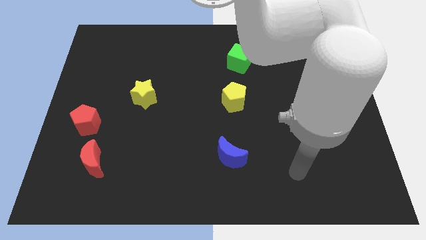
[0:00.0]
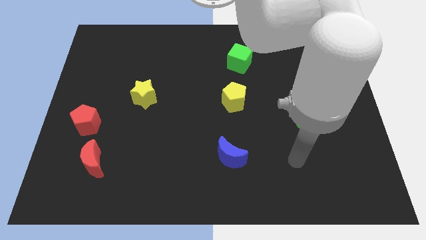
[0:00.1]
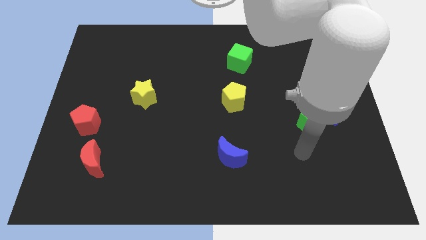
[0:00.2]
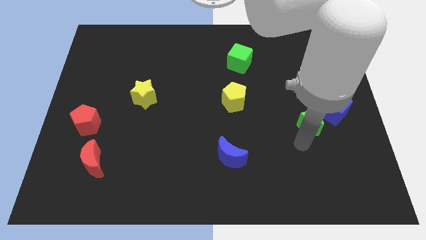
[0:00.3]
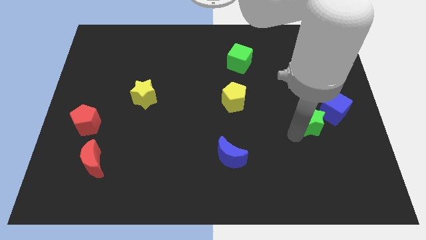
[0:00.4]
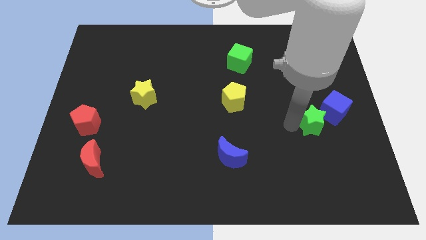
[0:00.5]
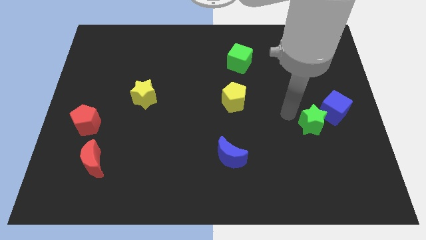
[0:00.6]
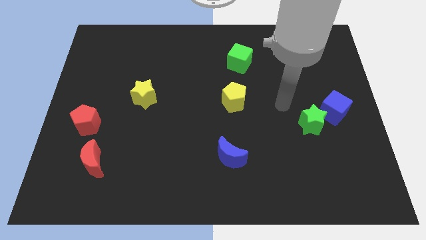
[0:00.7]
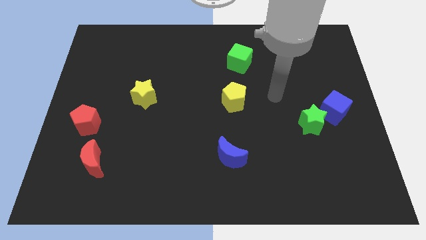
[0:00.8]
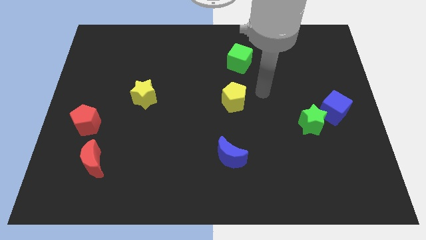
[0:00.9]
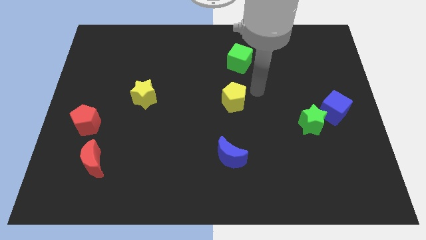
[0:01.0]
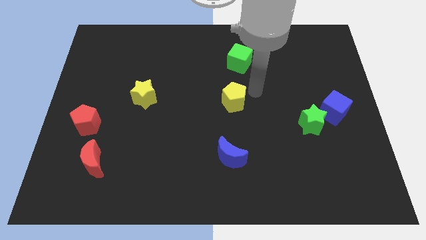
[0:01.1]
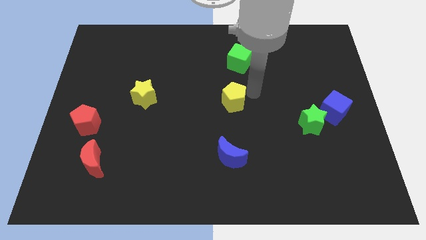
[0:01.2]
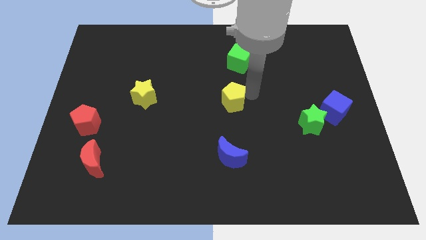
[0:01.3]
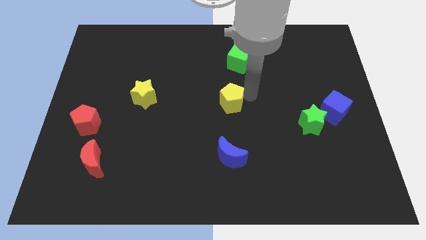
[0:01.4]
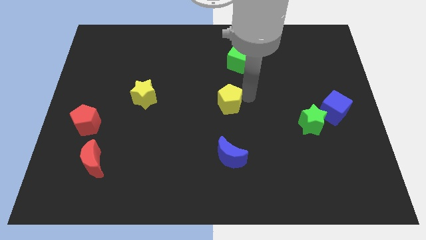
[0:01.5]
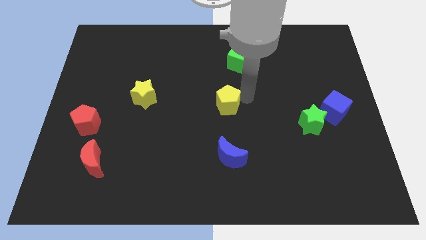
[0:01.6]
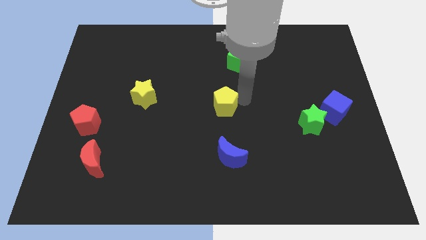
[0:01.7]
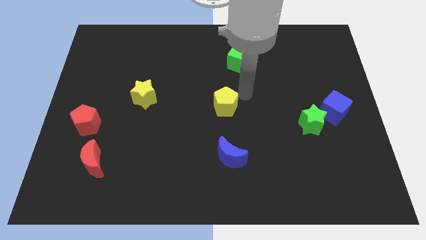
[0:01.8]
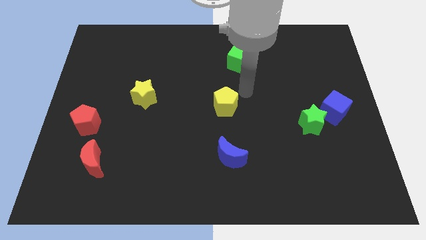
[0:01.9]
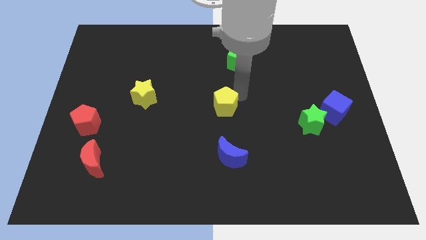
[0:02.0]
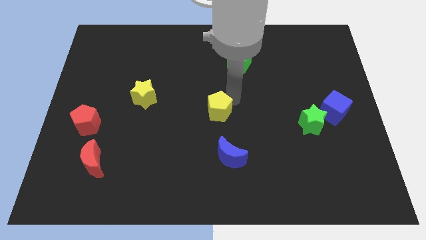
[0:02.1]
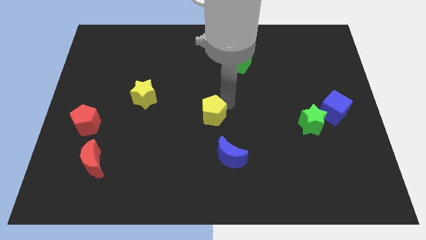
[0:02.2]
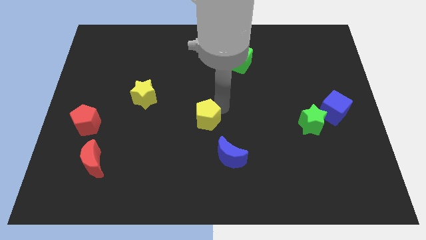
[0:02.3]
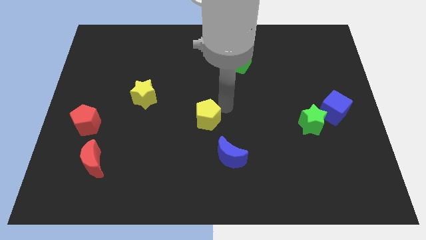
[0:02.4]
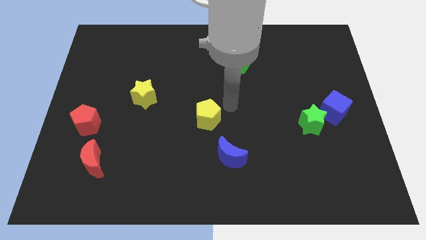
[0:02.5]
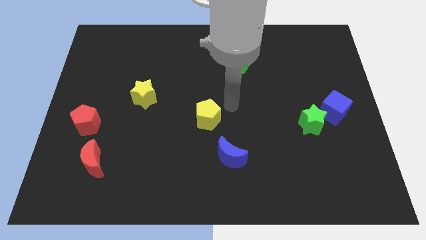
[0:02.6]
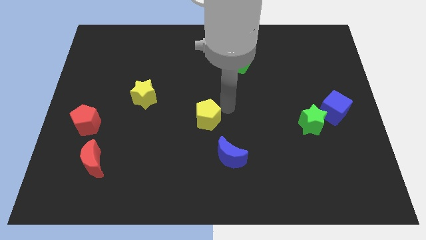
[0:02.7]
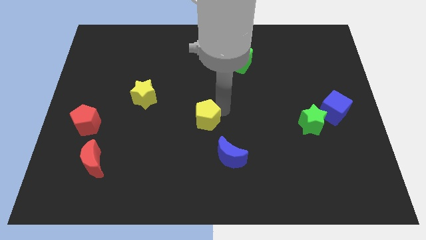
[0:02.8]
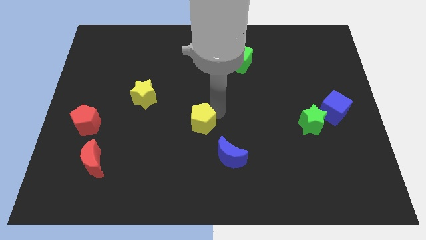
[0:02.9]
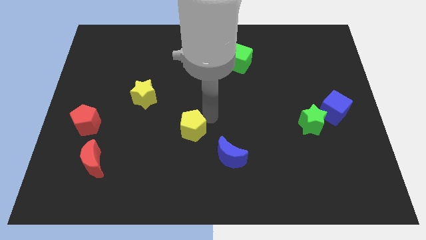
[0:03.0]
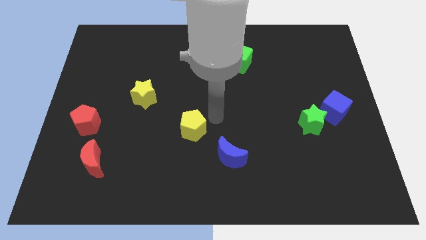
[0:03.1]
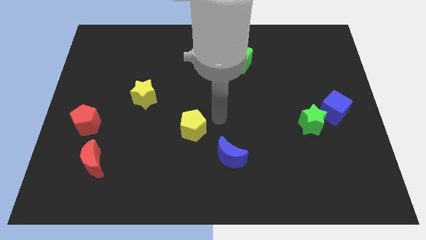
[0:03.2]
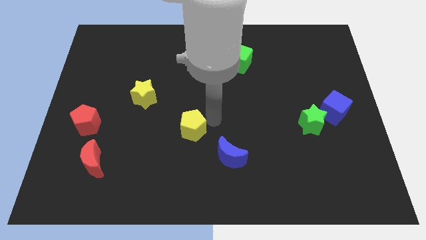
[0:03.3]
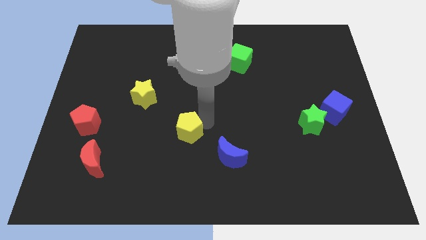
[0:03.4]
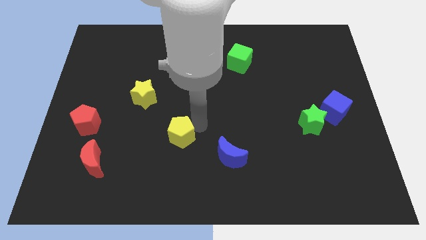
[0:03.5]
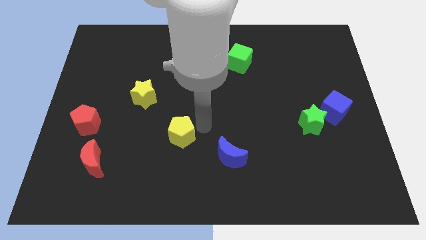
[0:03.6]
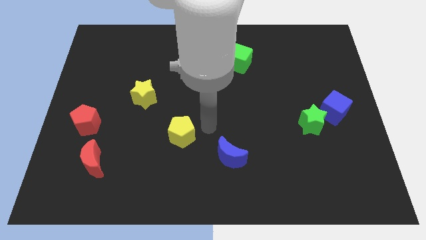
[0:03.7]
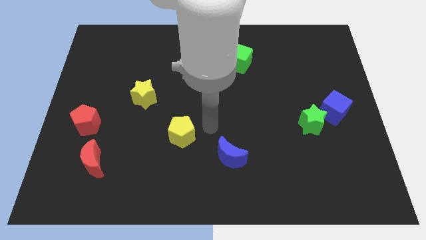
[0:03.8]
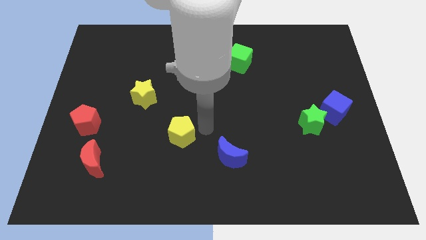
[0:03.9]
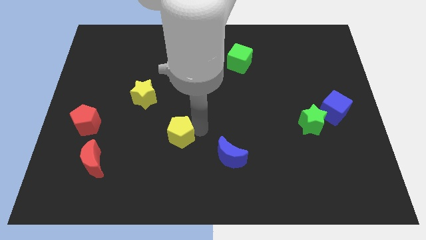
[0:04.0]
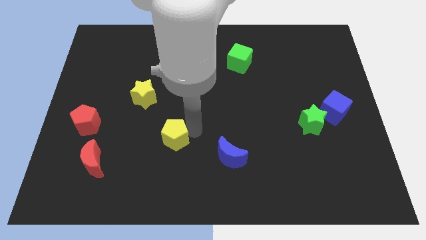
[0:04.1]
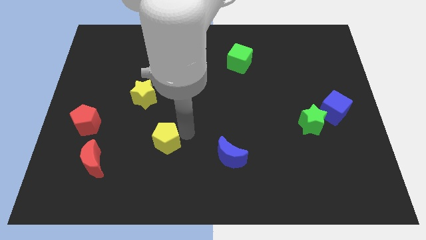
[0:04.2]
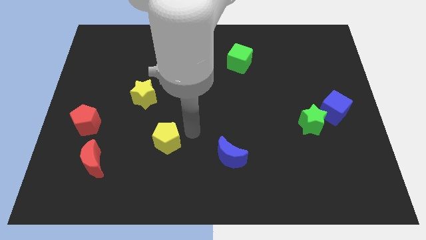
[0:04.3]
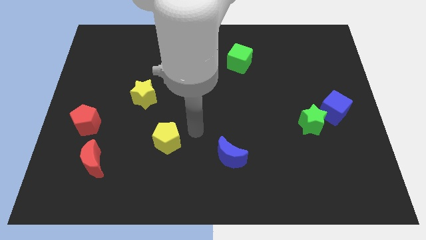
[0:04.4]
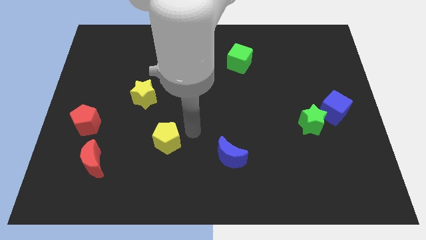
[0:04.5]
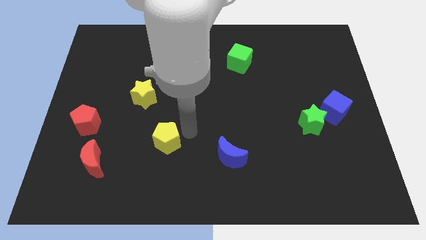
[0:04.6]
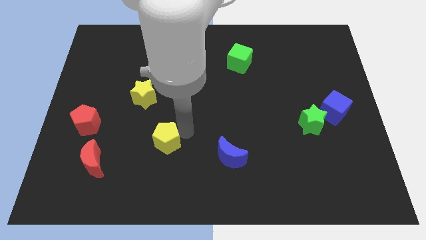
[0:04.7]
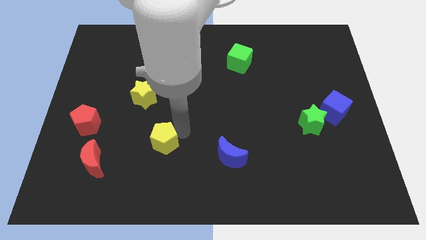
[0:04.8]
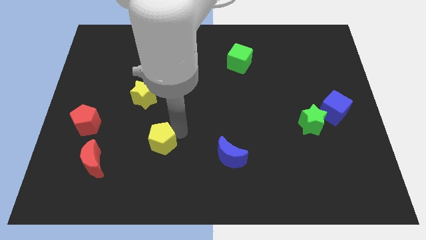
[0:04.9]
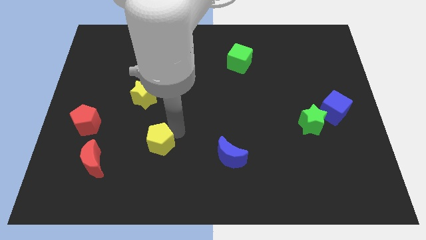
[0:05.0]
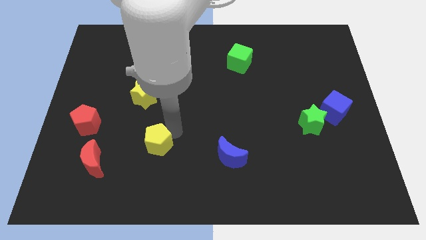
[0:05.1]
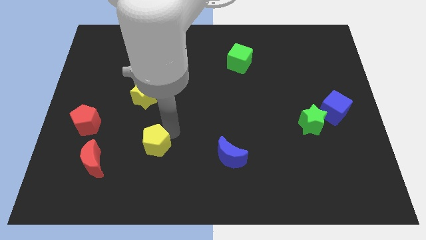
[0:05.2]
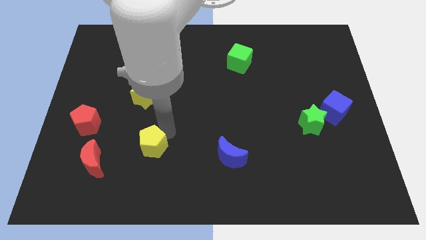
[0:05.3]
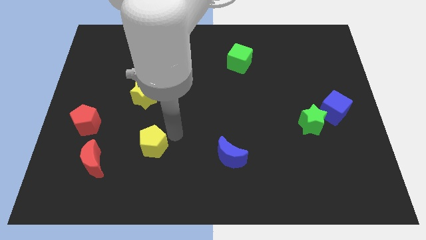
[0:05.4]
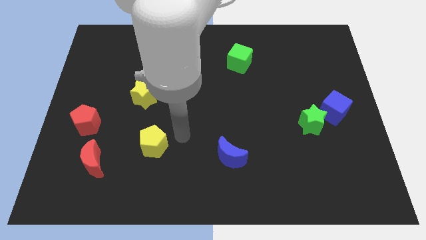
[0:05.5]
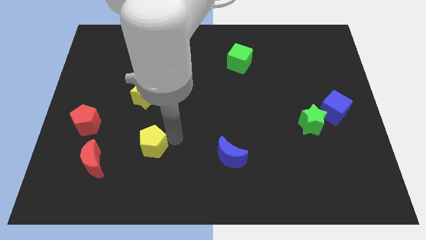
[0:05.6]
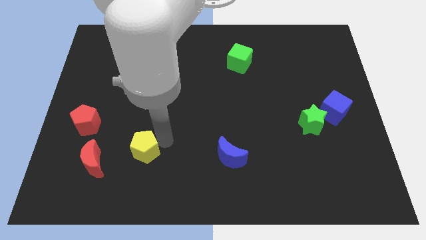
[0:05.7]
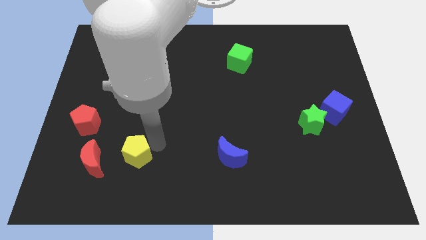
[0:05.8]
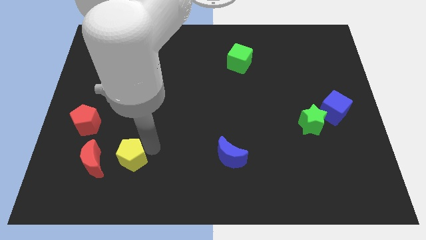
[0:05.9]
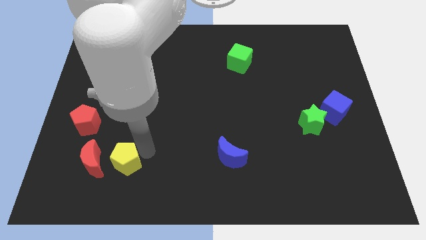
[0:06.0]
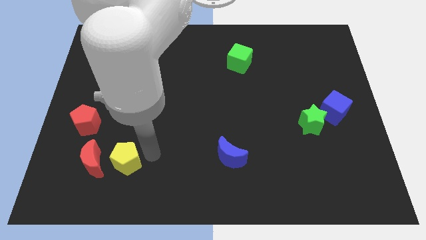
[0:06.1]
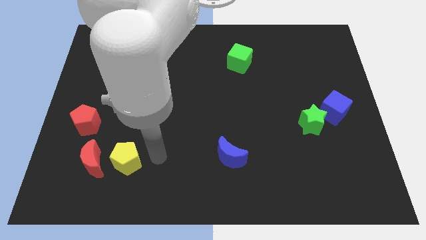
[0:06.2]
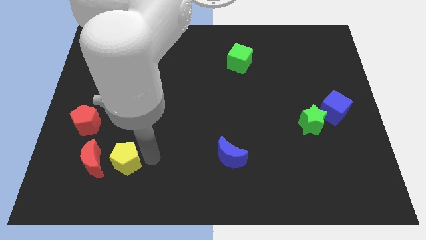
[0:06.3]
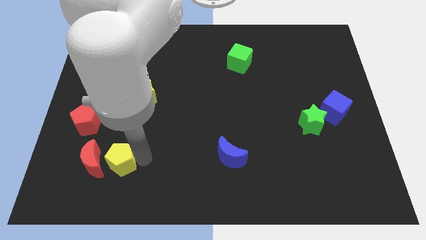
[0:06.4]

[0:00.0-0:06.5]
slide the yellow pentagon towards the red moon

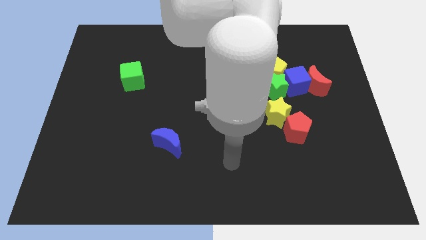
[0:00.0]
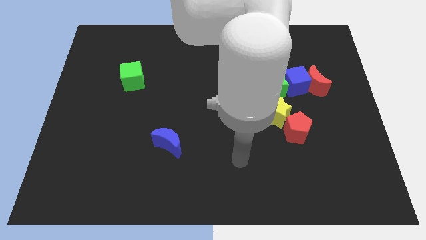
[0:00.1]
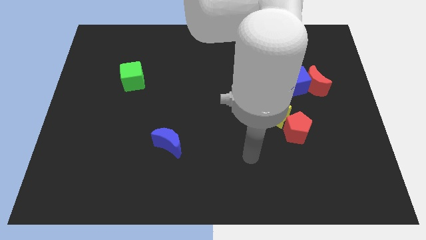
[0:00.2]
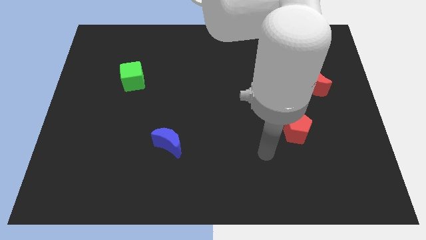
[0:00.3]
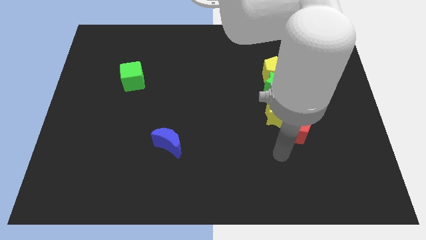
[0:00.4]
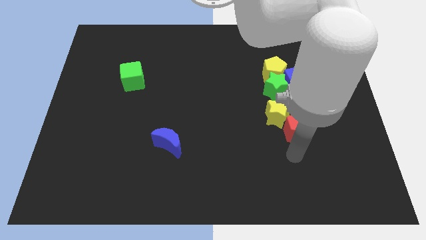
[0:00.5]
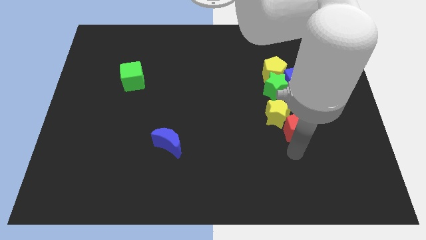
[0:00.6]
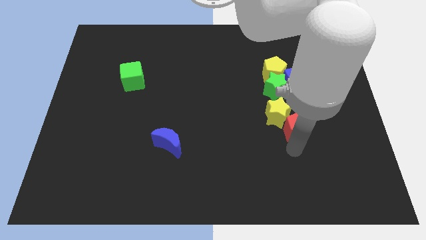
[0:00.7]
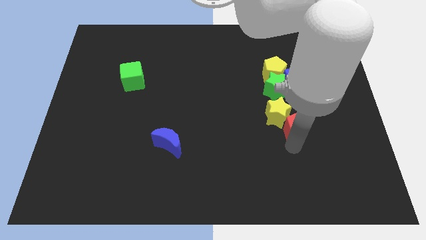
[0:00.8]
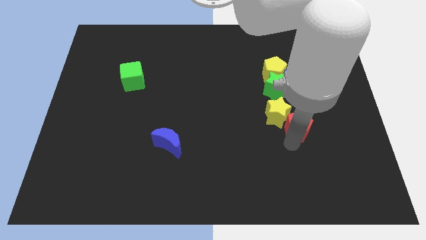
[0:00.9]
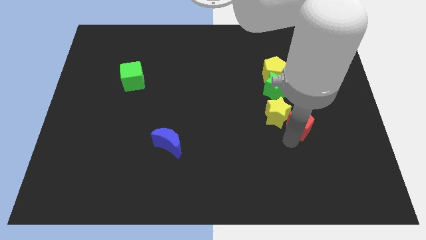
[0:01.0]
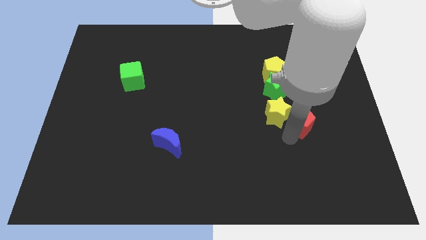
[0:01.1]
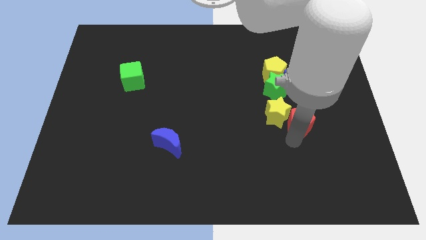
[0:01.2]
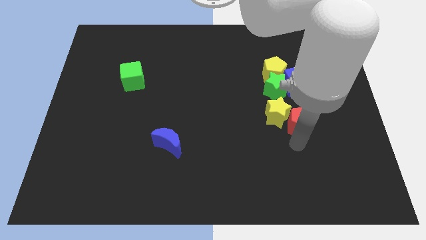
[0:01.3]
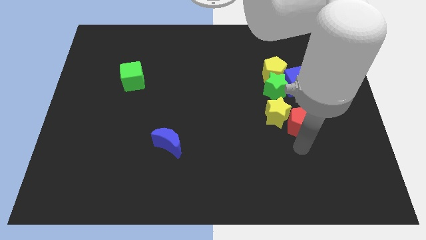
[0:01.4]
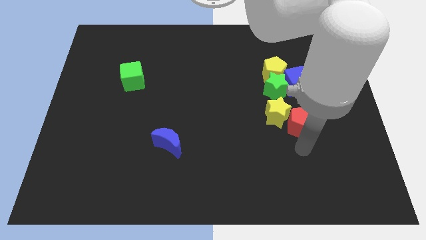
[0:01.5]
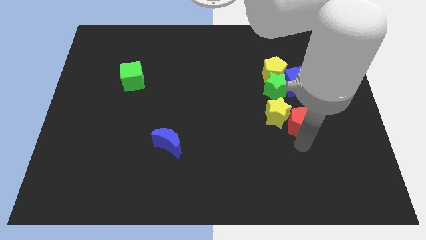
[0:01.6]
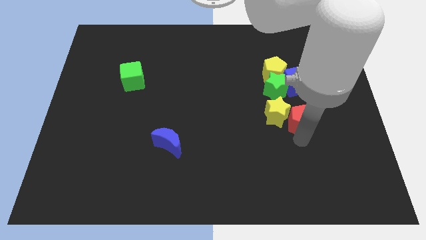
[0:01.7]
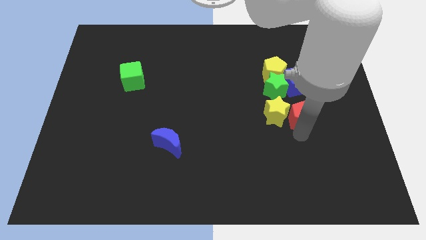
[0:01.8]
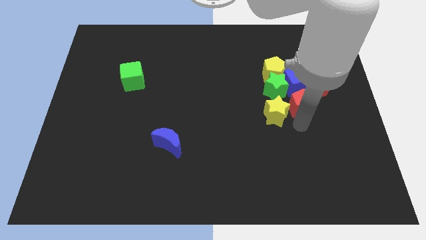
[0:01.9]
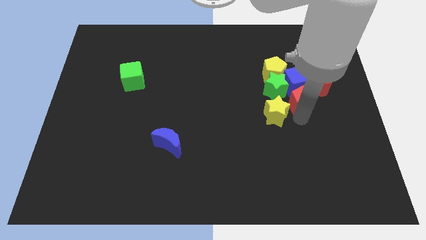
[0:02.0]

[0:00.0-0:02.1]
slide the red pentagon to the blue cube
